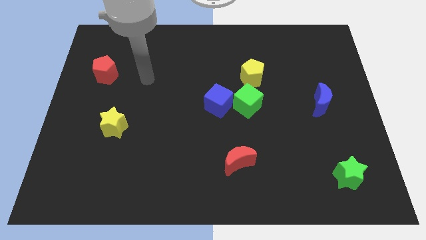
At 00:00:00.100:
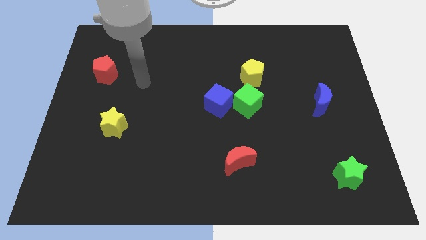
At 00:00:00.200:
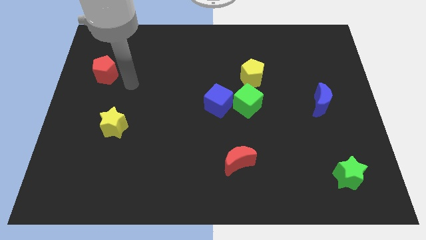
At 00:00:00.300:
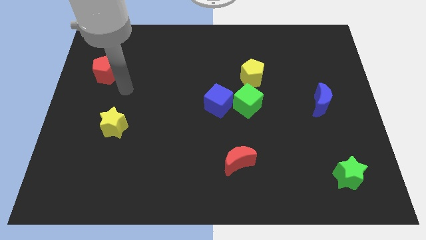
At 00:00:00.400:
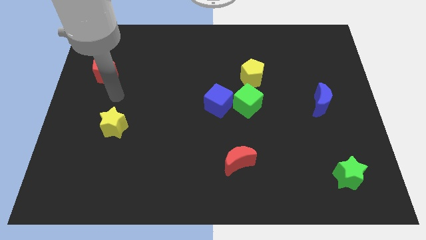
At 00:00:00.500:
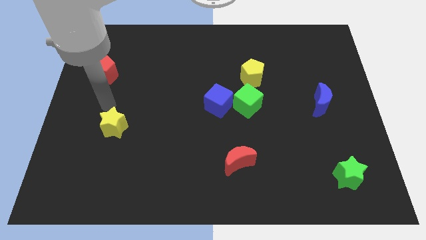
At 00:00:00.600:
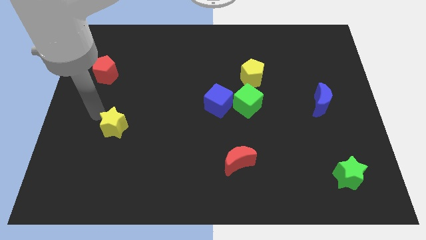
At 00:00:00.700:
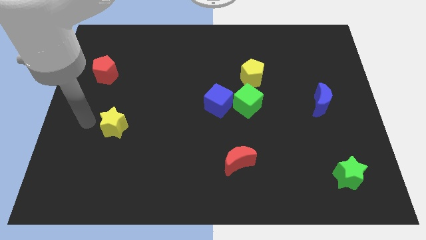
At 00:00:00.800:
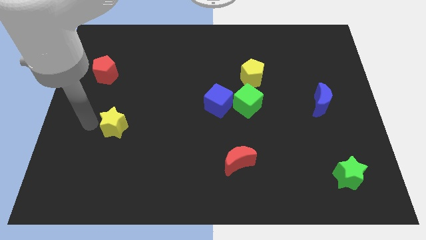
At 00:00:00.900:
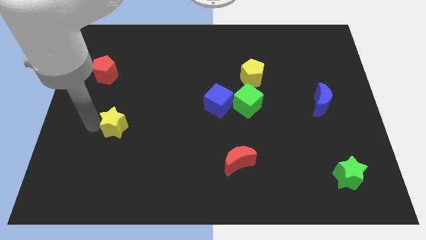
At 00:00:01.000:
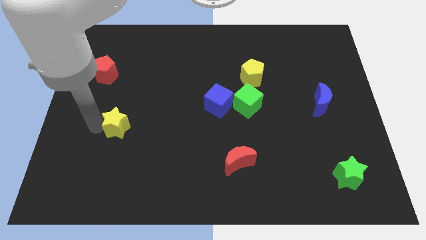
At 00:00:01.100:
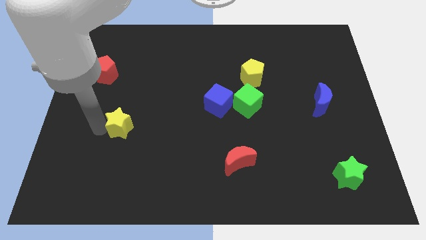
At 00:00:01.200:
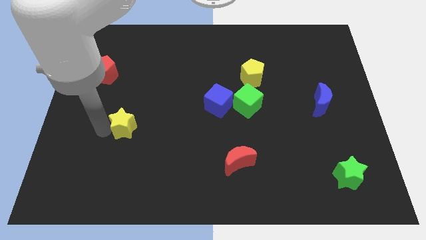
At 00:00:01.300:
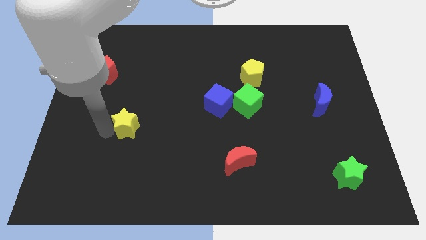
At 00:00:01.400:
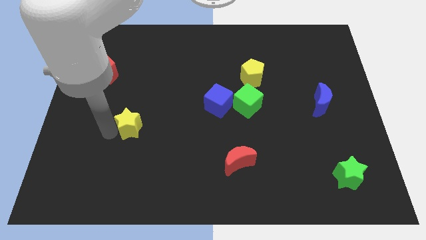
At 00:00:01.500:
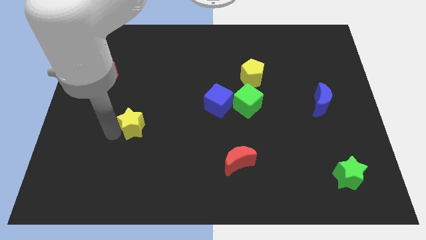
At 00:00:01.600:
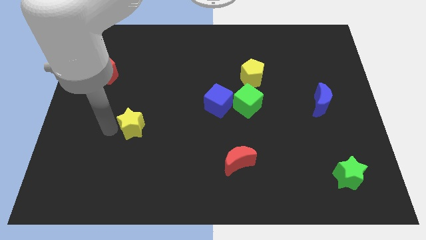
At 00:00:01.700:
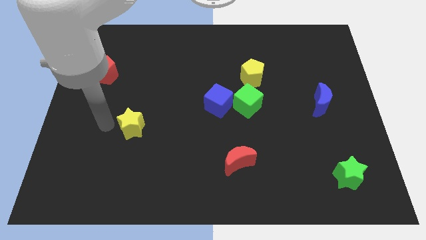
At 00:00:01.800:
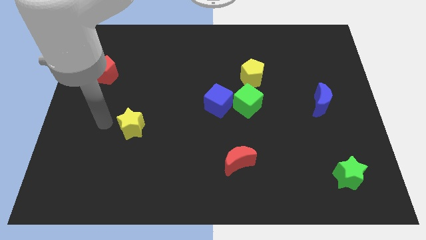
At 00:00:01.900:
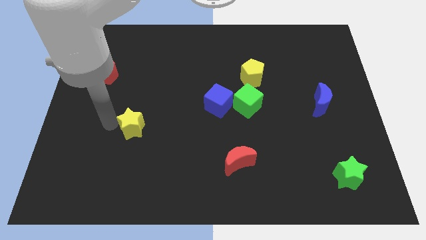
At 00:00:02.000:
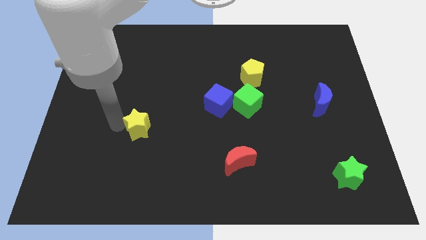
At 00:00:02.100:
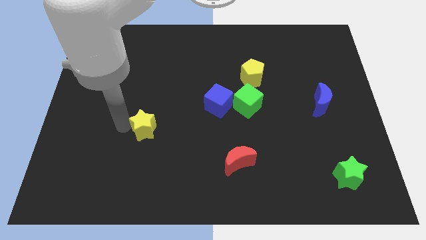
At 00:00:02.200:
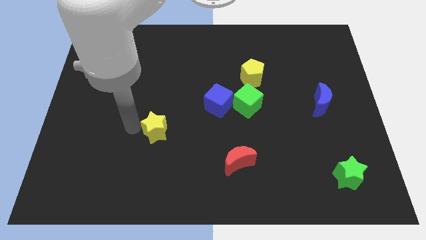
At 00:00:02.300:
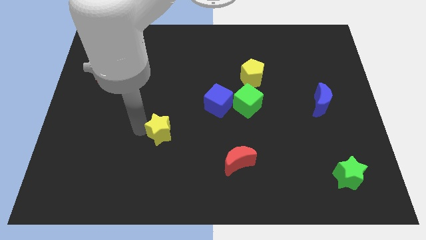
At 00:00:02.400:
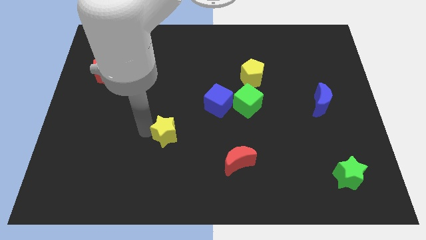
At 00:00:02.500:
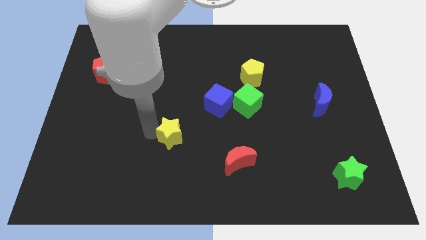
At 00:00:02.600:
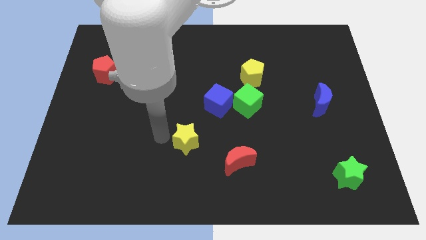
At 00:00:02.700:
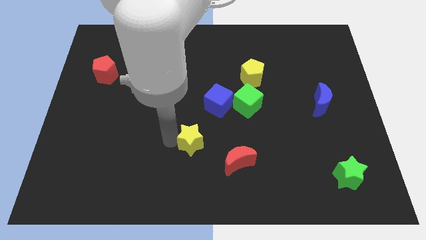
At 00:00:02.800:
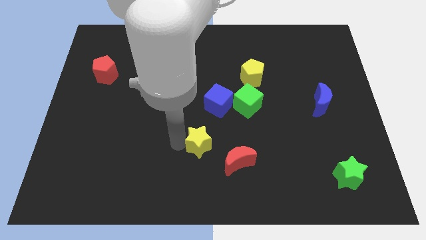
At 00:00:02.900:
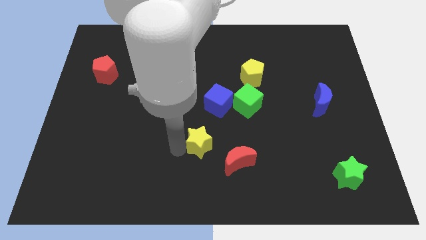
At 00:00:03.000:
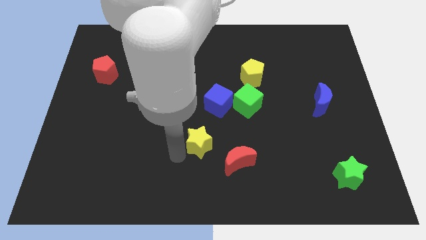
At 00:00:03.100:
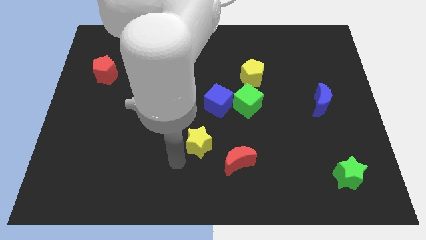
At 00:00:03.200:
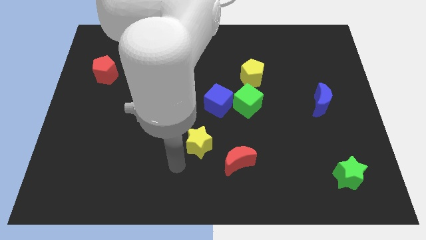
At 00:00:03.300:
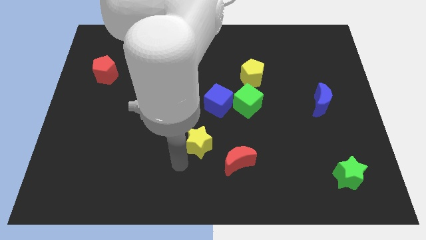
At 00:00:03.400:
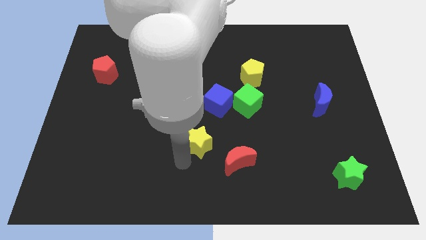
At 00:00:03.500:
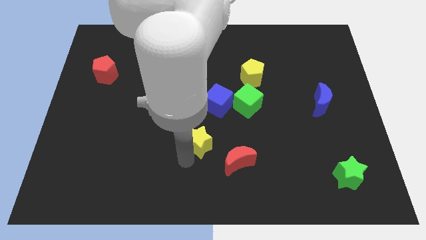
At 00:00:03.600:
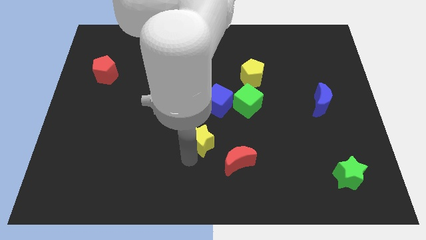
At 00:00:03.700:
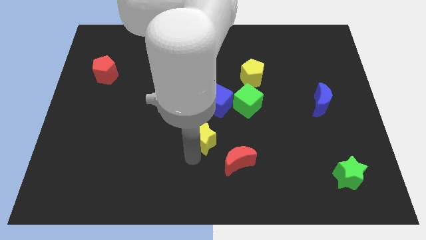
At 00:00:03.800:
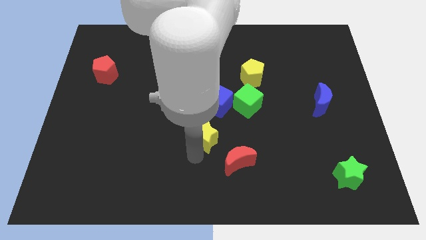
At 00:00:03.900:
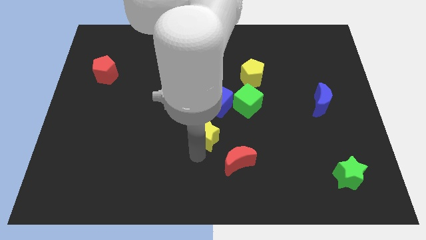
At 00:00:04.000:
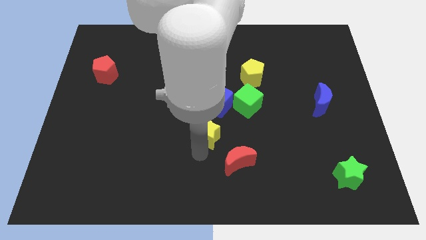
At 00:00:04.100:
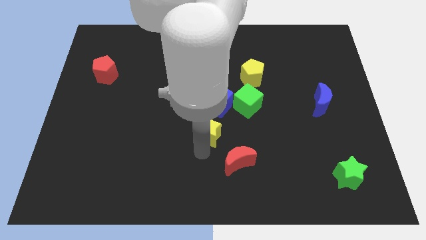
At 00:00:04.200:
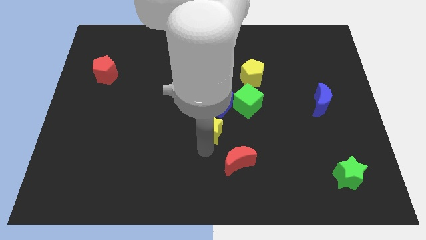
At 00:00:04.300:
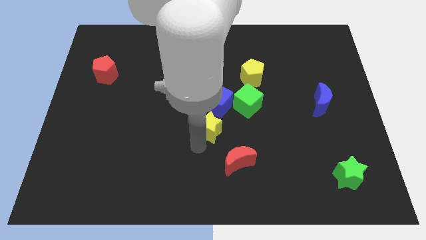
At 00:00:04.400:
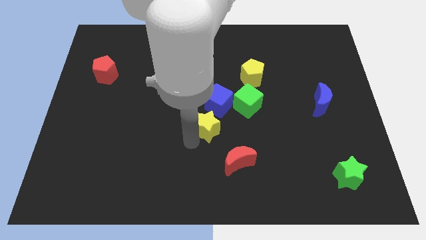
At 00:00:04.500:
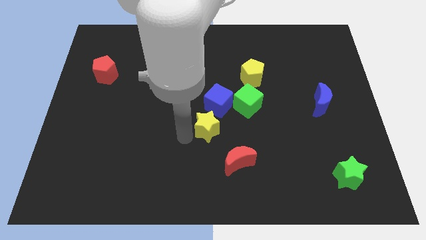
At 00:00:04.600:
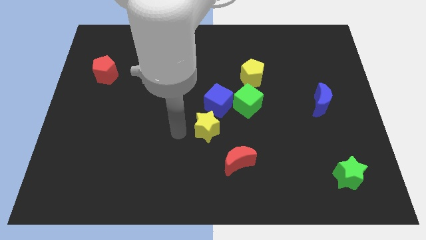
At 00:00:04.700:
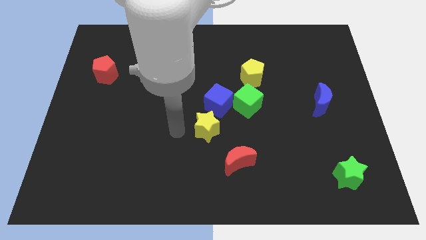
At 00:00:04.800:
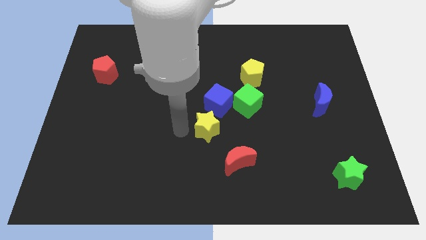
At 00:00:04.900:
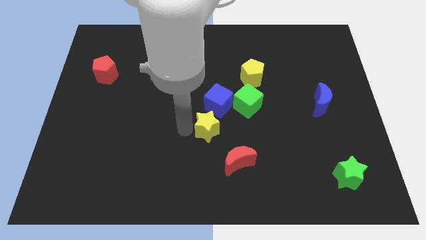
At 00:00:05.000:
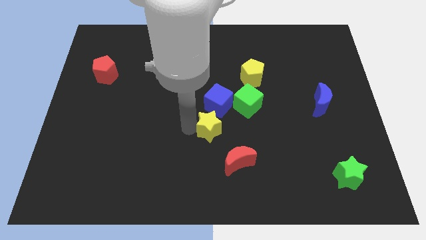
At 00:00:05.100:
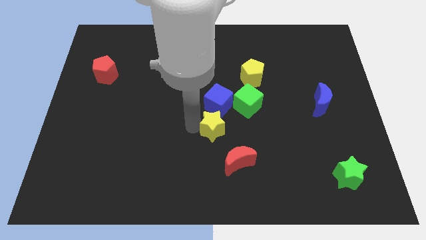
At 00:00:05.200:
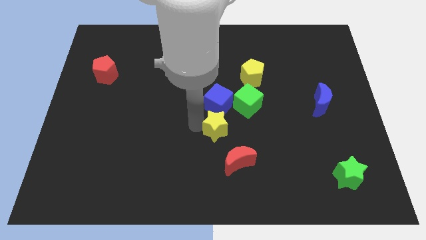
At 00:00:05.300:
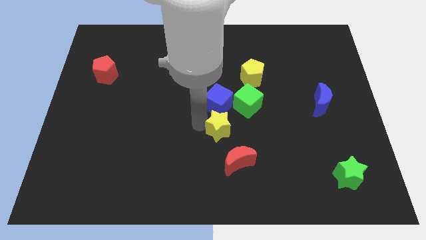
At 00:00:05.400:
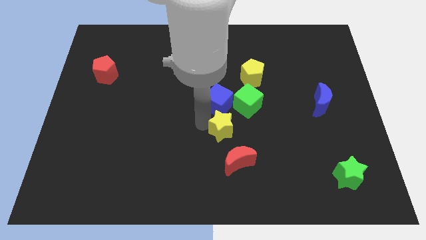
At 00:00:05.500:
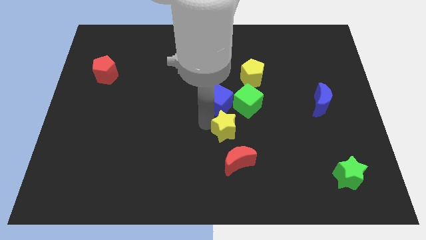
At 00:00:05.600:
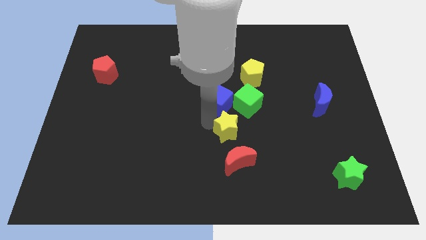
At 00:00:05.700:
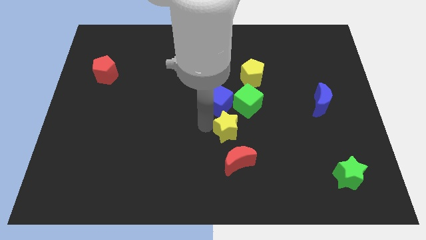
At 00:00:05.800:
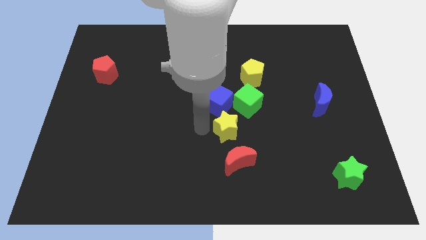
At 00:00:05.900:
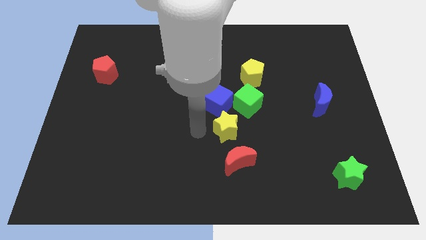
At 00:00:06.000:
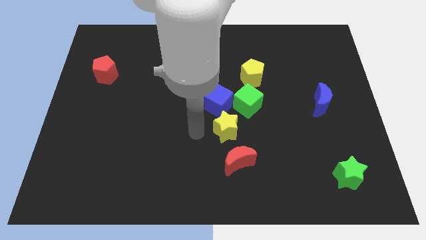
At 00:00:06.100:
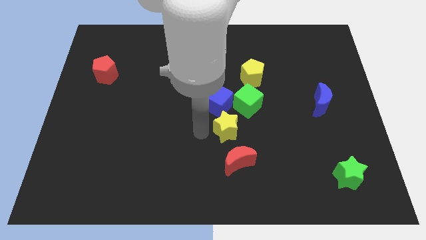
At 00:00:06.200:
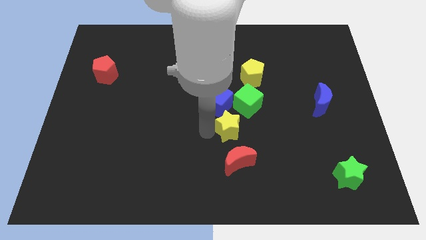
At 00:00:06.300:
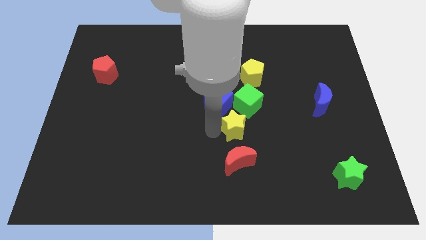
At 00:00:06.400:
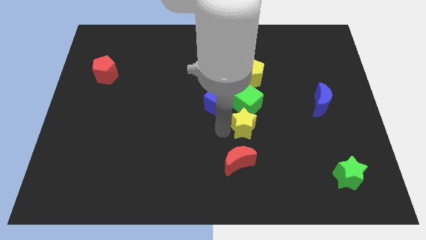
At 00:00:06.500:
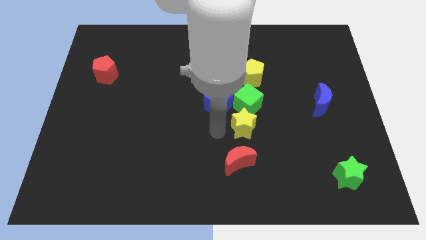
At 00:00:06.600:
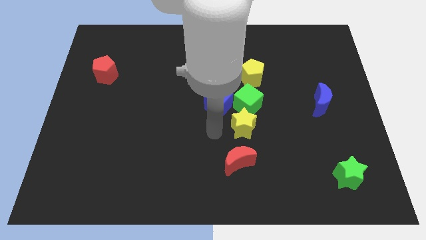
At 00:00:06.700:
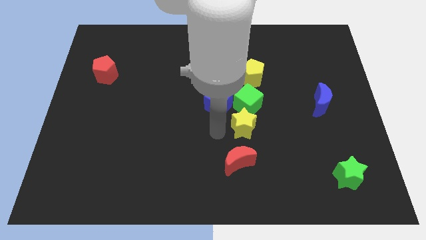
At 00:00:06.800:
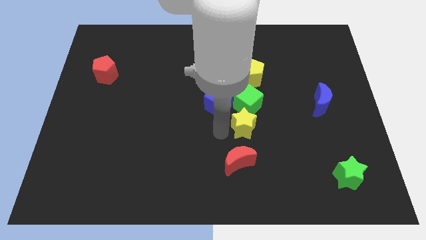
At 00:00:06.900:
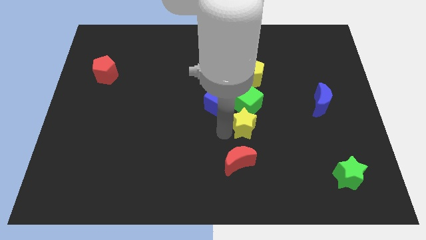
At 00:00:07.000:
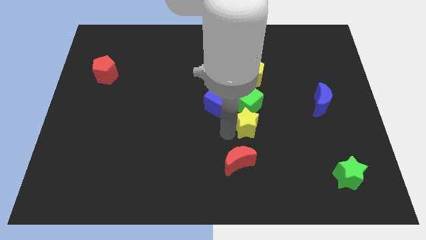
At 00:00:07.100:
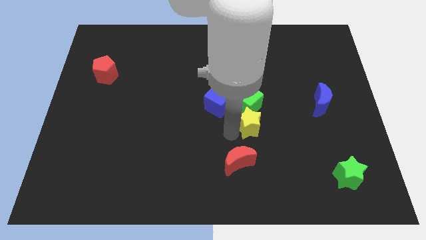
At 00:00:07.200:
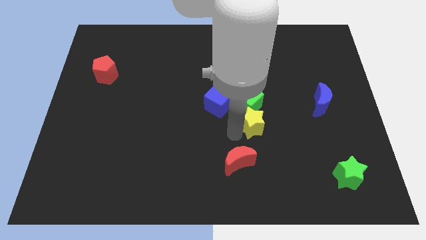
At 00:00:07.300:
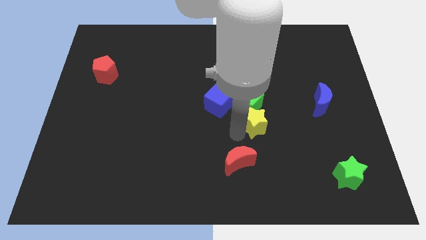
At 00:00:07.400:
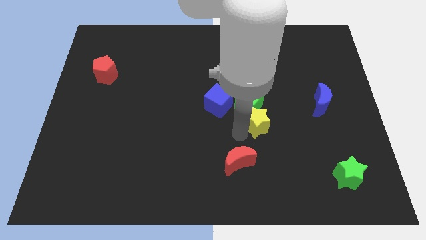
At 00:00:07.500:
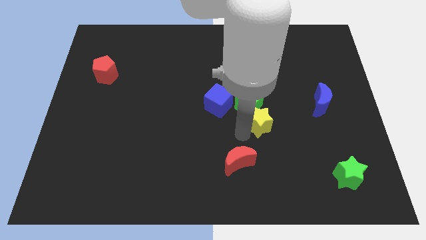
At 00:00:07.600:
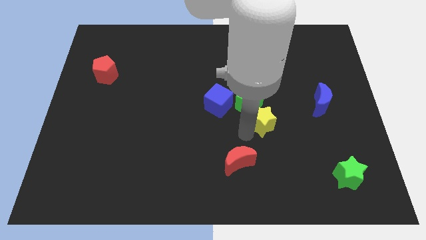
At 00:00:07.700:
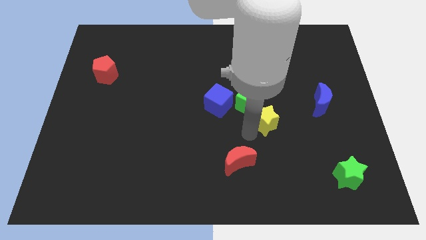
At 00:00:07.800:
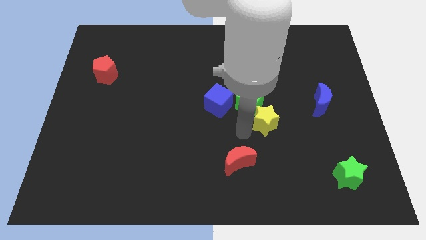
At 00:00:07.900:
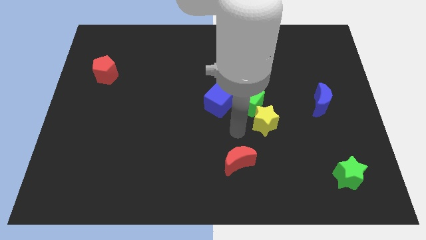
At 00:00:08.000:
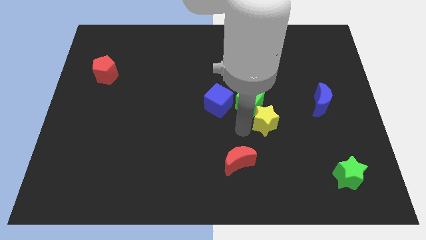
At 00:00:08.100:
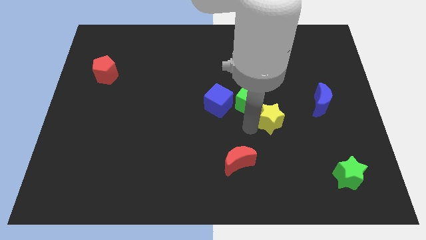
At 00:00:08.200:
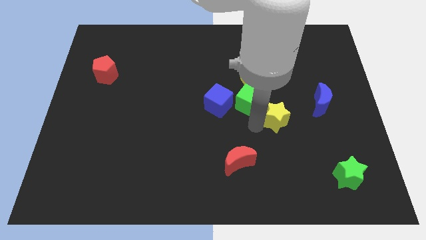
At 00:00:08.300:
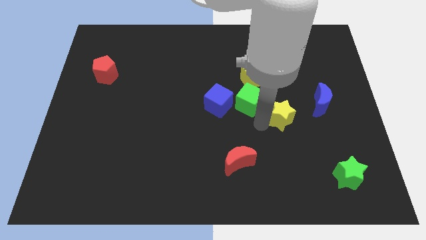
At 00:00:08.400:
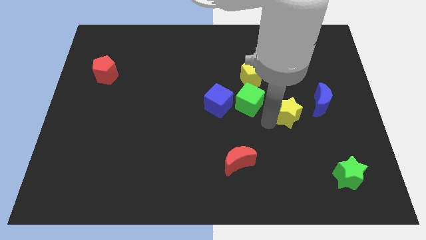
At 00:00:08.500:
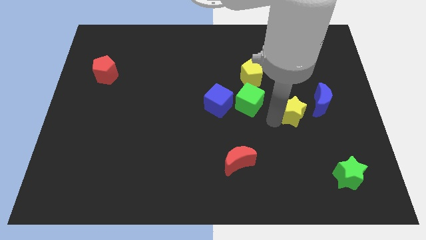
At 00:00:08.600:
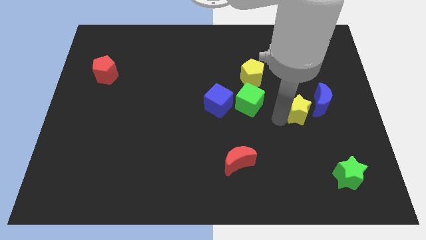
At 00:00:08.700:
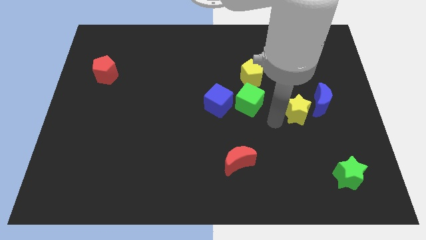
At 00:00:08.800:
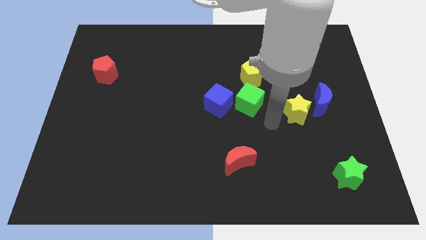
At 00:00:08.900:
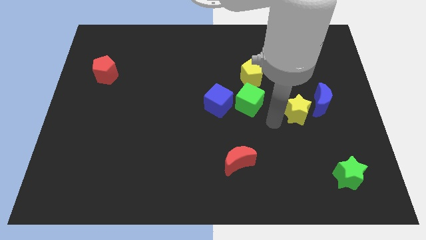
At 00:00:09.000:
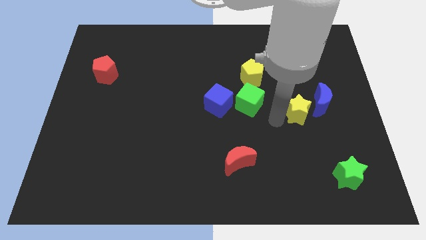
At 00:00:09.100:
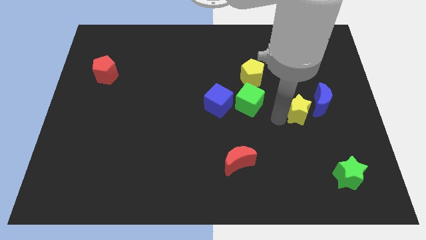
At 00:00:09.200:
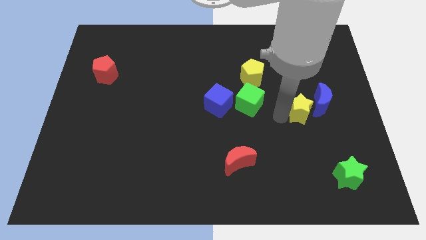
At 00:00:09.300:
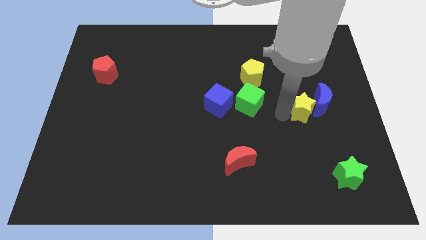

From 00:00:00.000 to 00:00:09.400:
push the yellow star next to the blue moon
